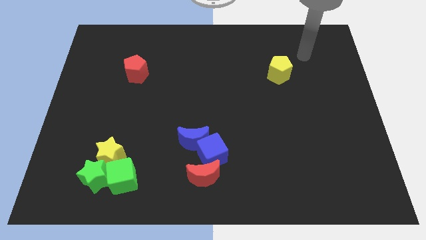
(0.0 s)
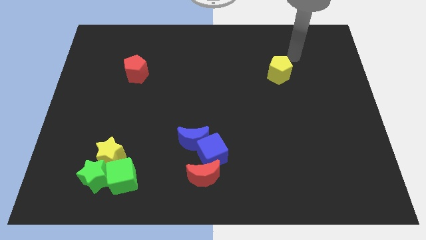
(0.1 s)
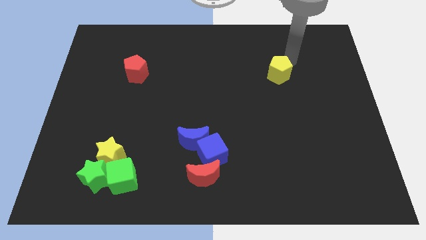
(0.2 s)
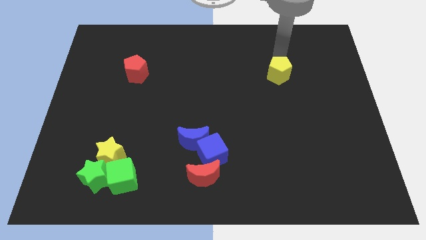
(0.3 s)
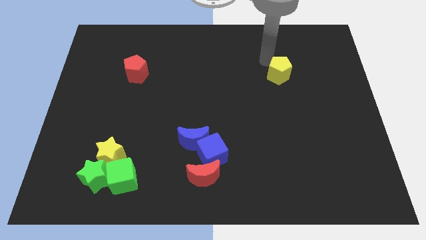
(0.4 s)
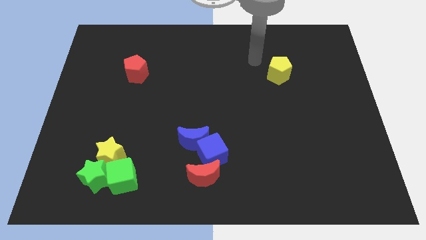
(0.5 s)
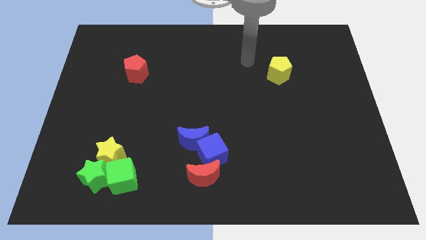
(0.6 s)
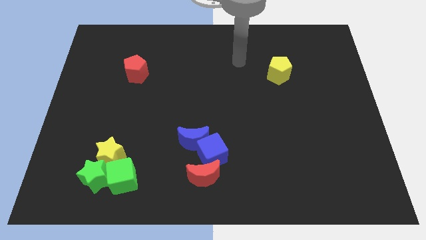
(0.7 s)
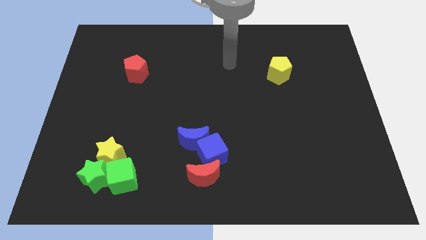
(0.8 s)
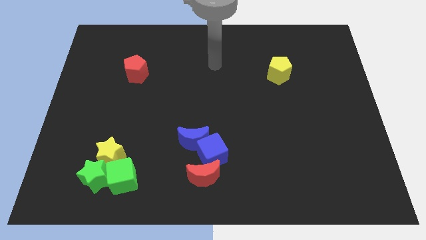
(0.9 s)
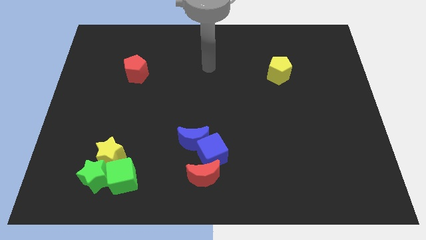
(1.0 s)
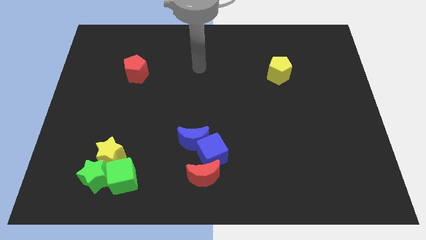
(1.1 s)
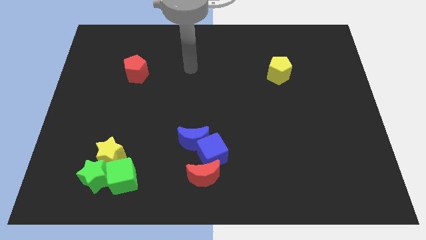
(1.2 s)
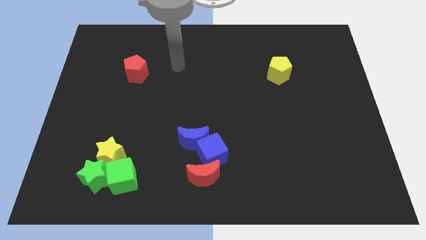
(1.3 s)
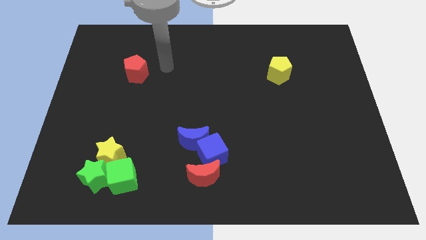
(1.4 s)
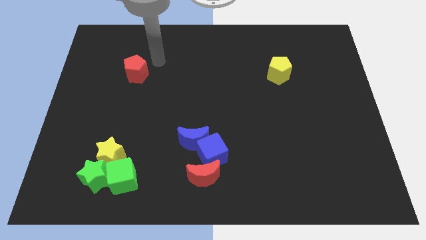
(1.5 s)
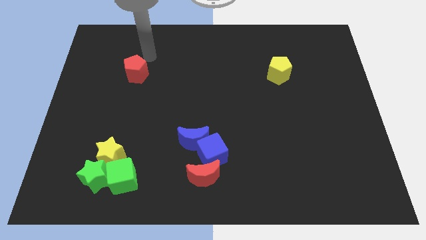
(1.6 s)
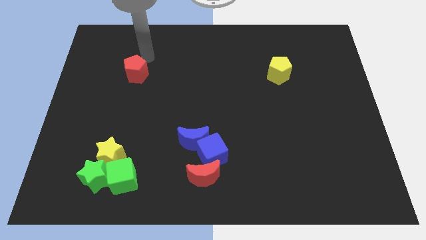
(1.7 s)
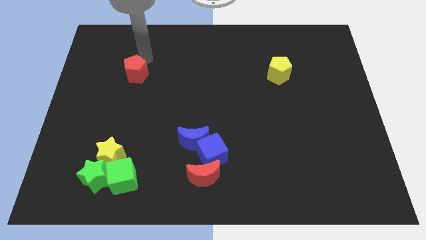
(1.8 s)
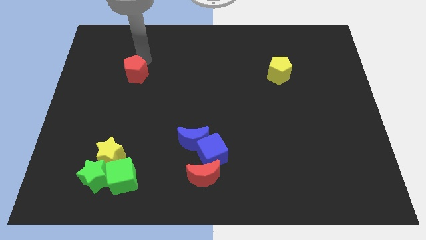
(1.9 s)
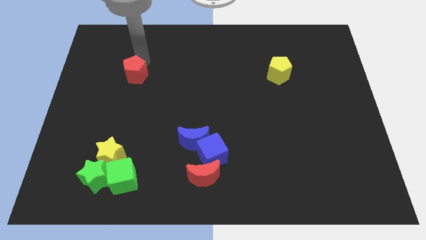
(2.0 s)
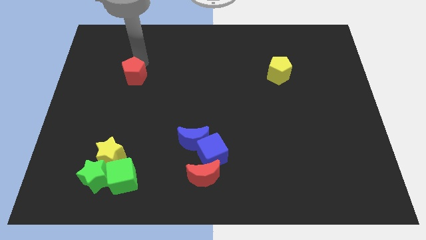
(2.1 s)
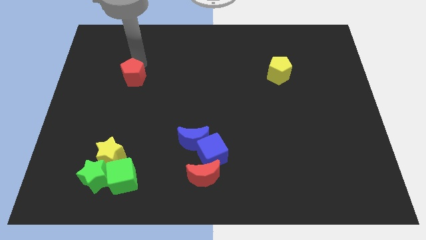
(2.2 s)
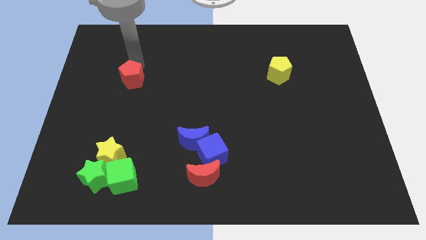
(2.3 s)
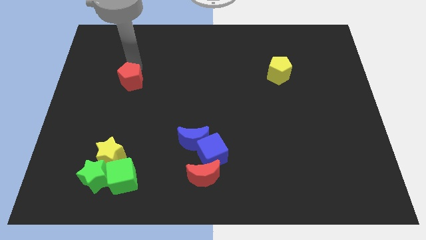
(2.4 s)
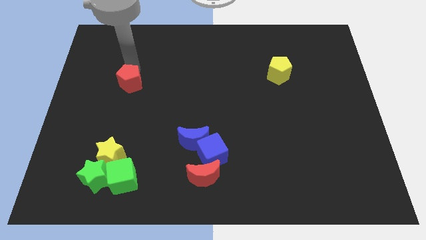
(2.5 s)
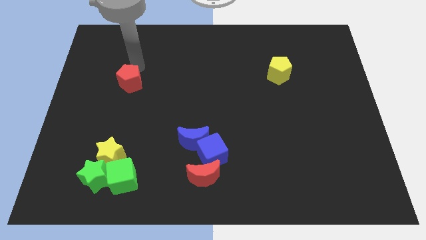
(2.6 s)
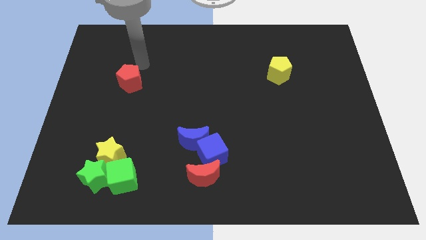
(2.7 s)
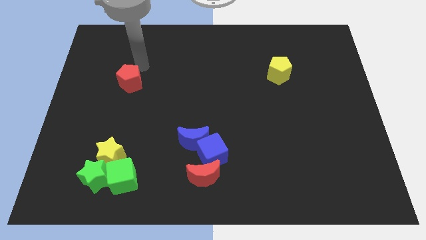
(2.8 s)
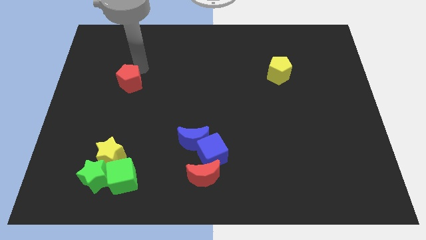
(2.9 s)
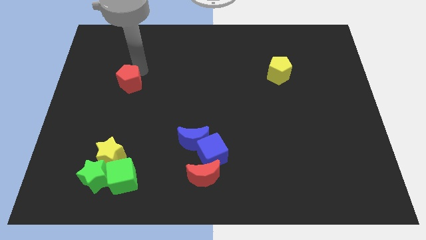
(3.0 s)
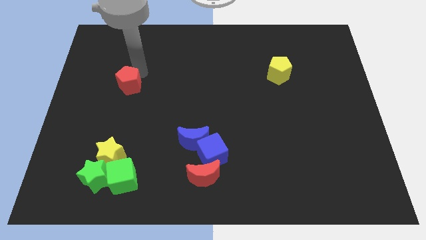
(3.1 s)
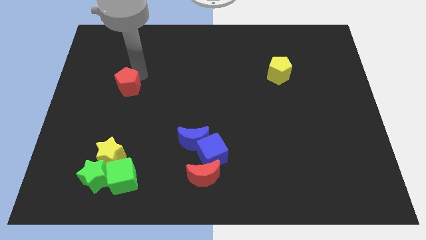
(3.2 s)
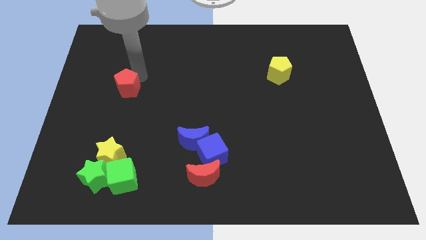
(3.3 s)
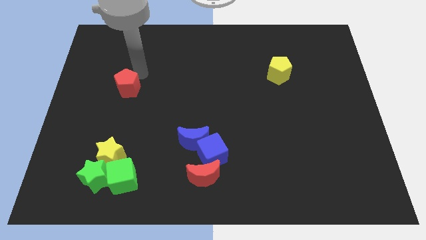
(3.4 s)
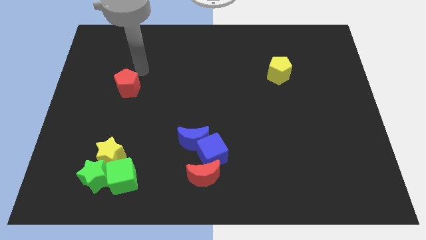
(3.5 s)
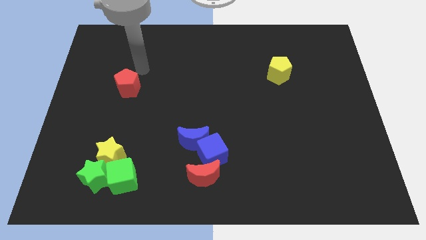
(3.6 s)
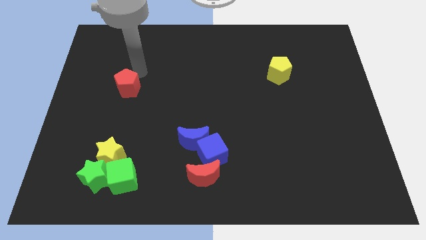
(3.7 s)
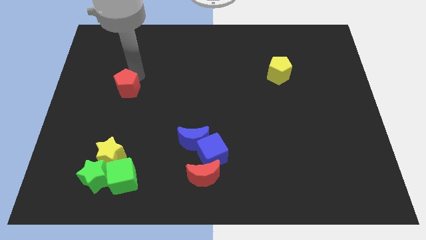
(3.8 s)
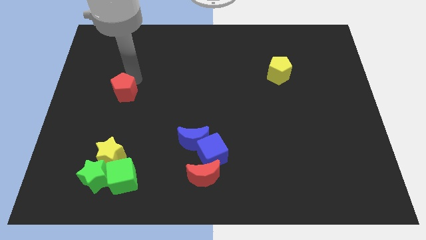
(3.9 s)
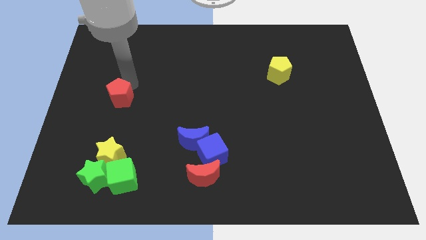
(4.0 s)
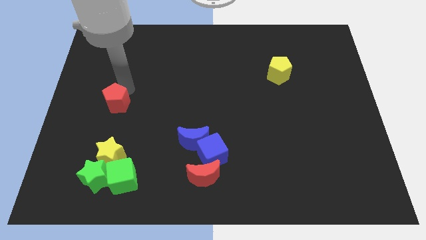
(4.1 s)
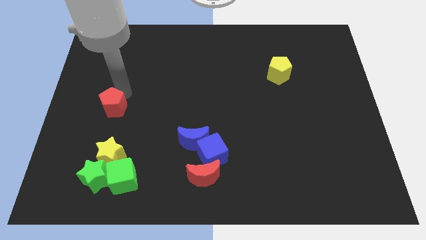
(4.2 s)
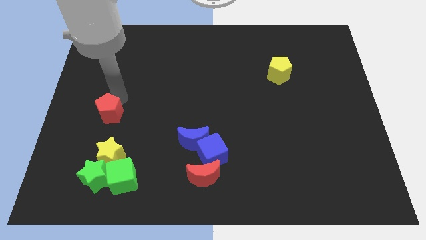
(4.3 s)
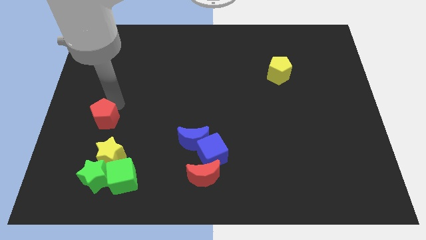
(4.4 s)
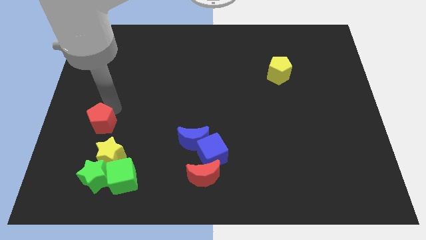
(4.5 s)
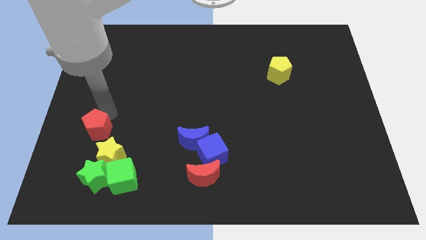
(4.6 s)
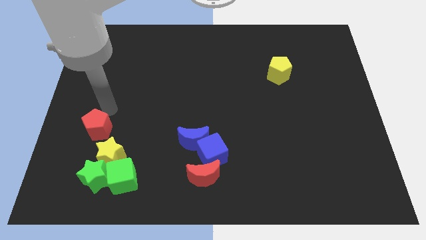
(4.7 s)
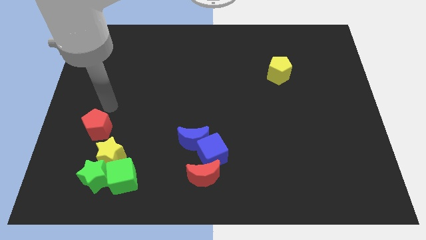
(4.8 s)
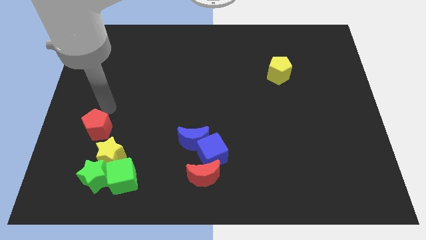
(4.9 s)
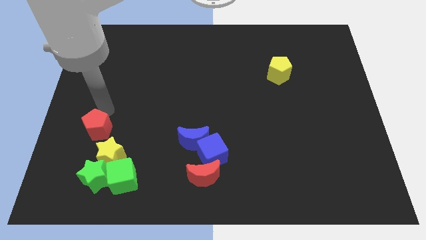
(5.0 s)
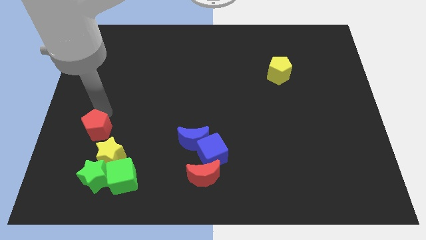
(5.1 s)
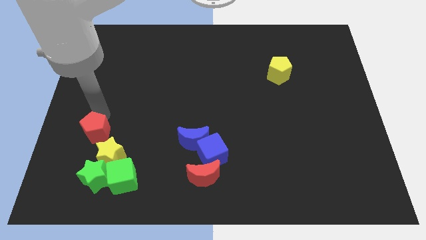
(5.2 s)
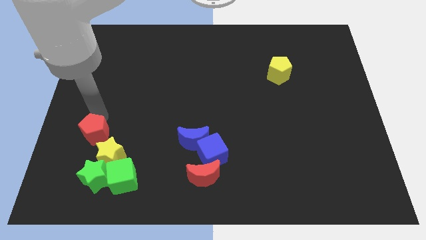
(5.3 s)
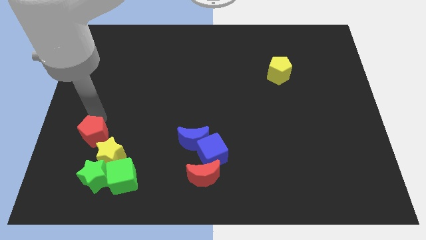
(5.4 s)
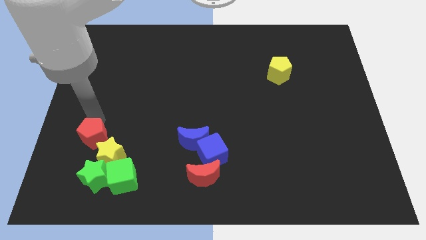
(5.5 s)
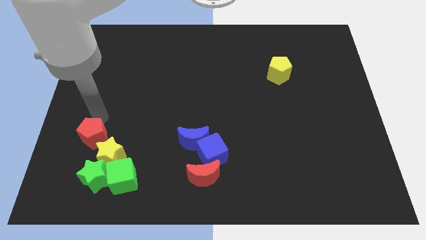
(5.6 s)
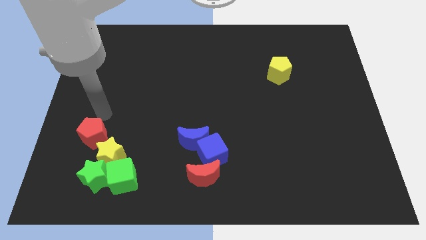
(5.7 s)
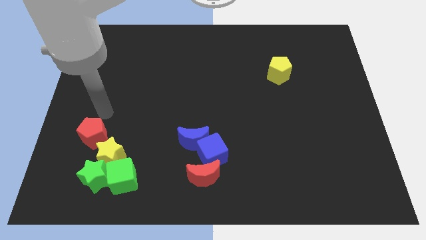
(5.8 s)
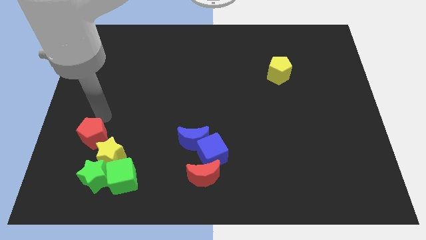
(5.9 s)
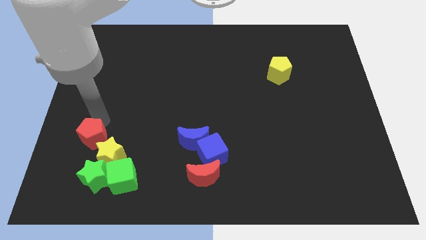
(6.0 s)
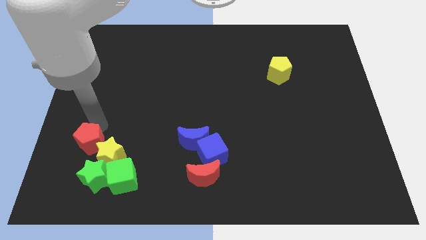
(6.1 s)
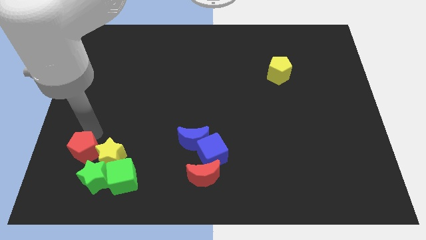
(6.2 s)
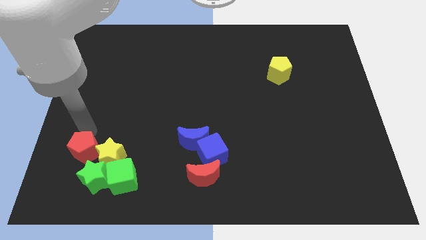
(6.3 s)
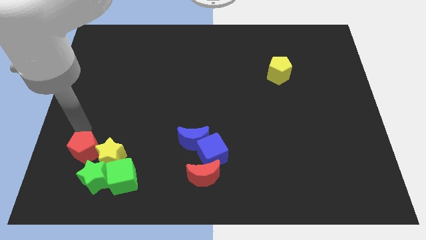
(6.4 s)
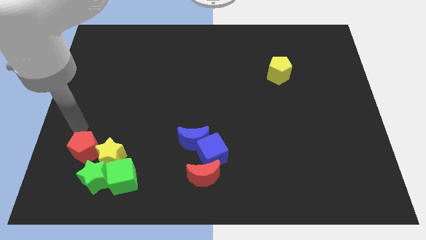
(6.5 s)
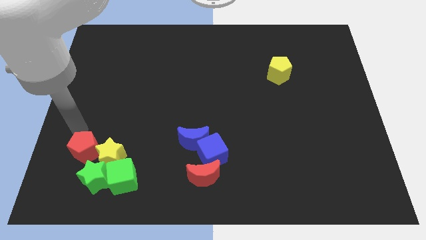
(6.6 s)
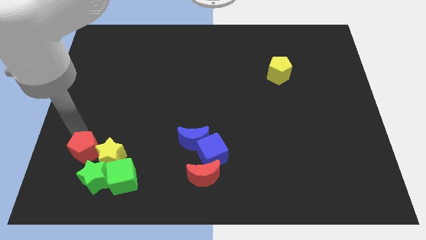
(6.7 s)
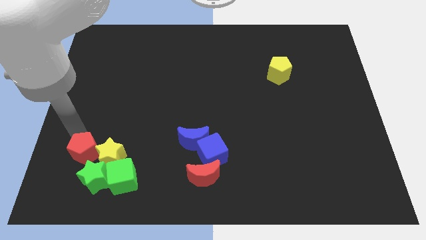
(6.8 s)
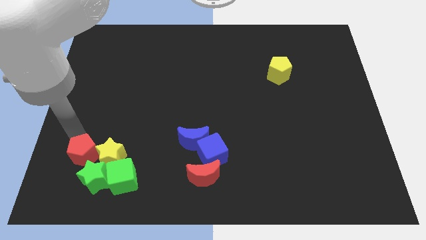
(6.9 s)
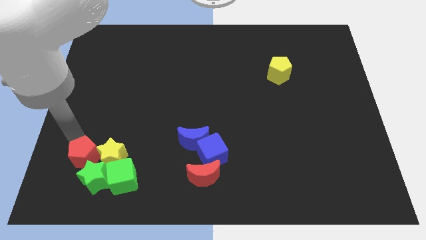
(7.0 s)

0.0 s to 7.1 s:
put the red pentagon towards the green star
